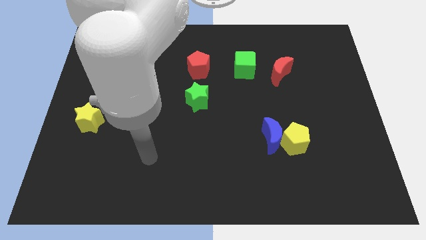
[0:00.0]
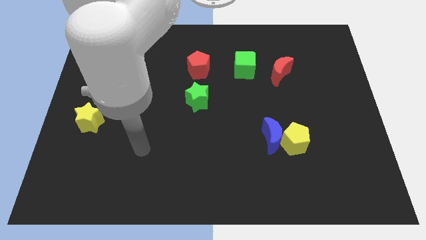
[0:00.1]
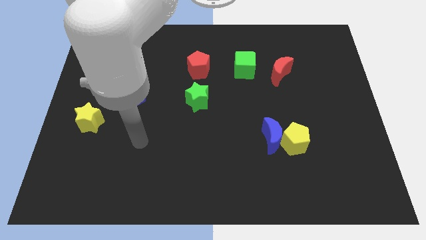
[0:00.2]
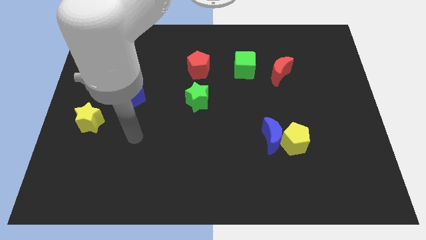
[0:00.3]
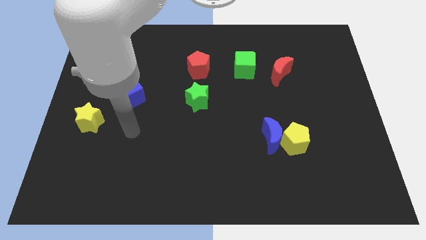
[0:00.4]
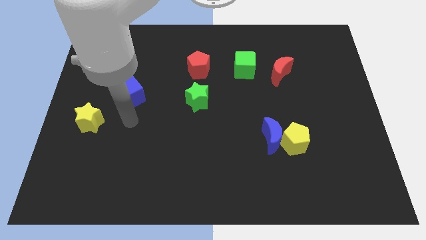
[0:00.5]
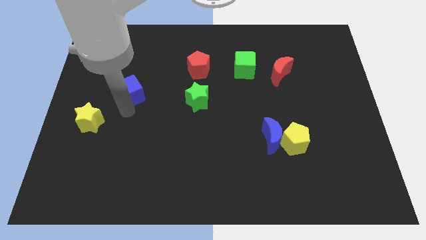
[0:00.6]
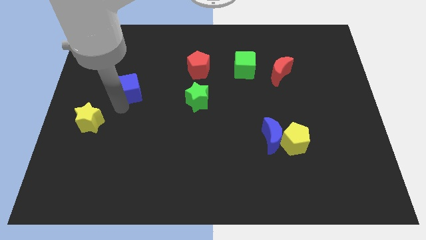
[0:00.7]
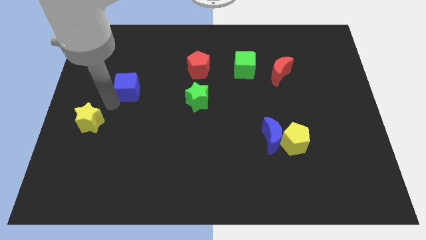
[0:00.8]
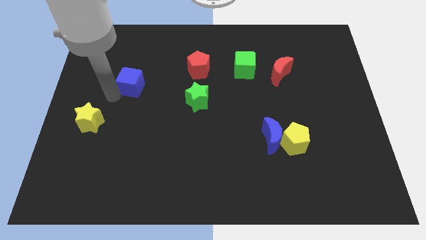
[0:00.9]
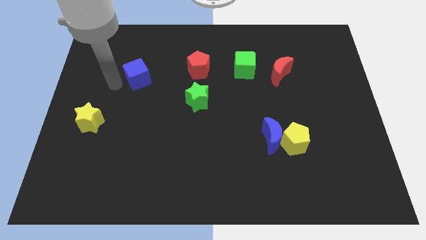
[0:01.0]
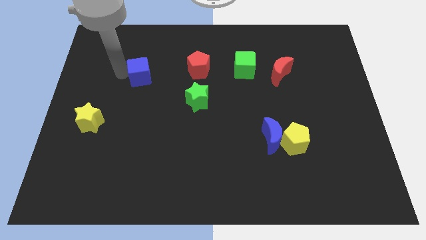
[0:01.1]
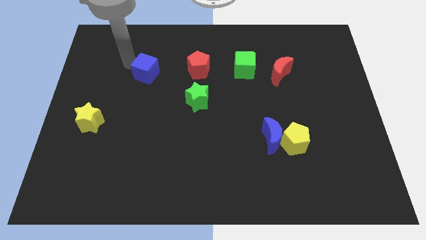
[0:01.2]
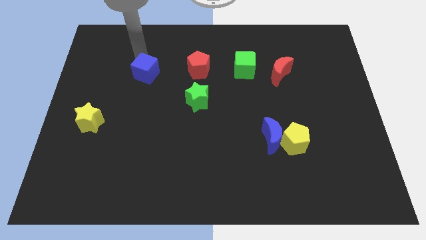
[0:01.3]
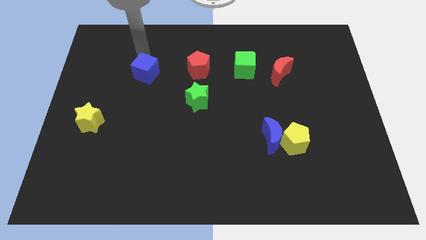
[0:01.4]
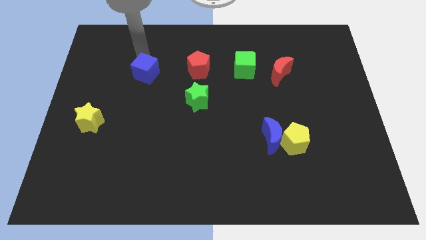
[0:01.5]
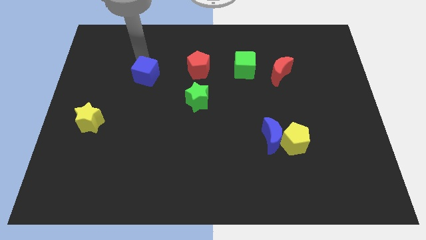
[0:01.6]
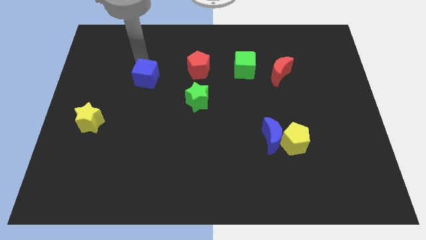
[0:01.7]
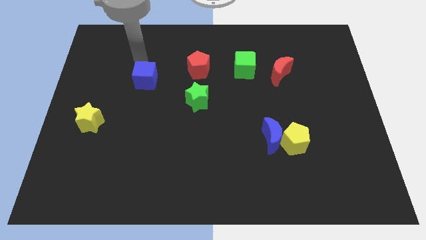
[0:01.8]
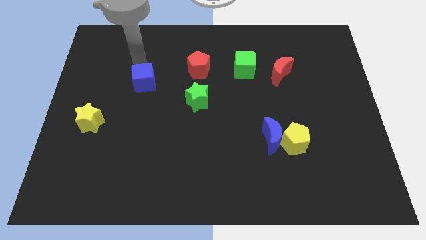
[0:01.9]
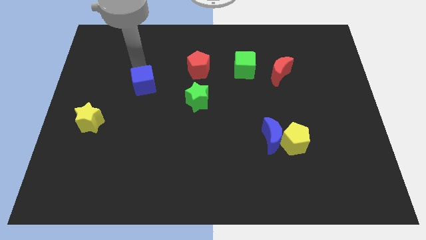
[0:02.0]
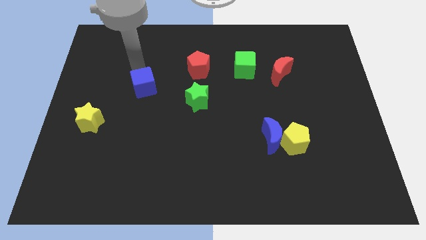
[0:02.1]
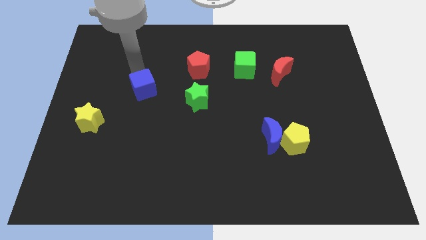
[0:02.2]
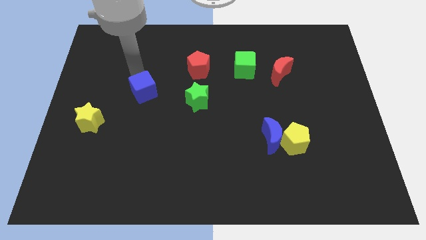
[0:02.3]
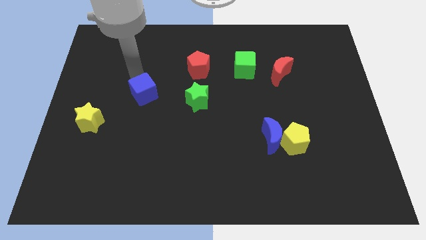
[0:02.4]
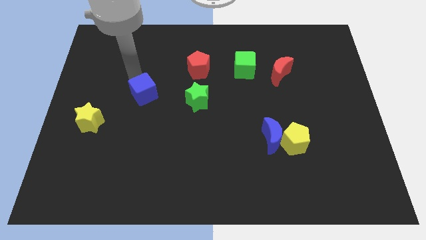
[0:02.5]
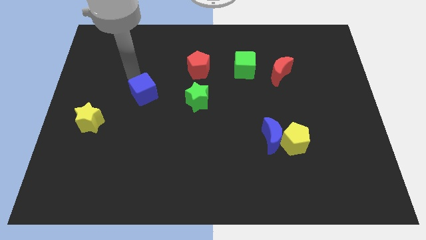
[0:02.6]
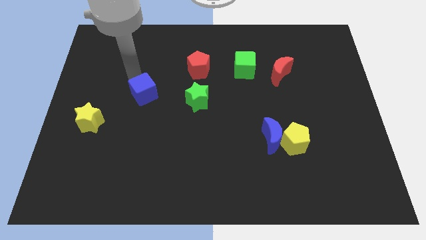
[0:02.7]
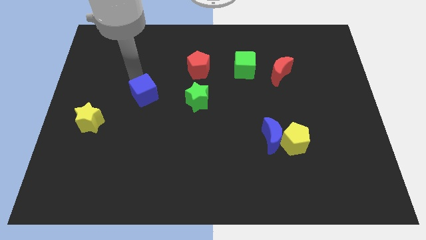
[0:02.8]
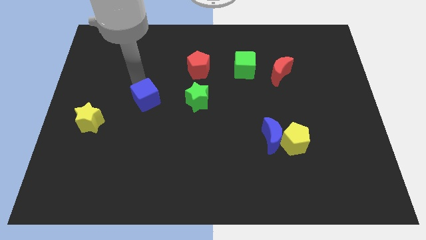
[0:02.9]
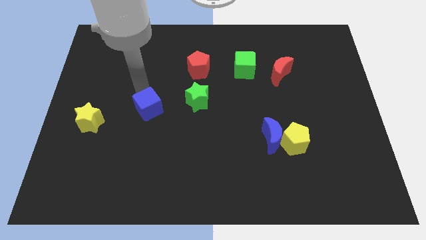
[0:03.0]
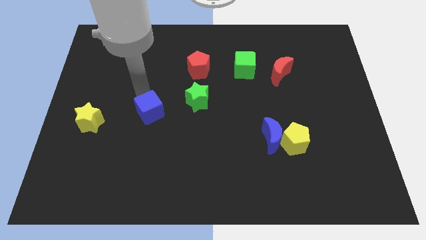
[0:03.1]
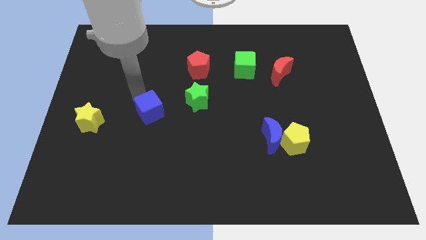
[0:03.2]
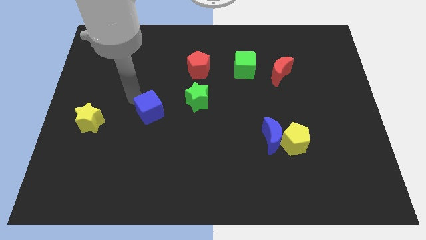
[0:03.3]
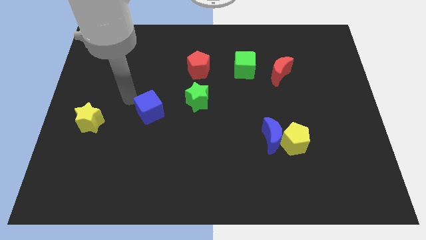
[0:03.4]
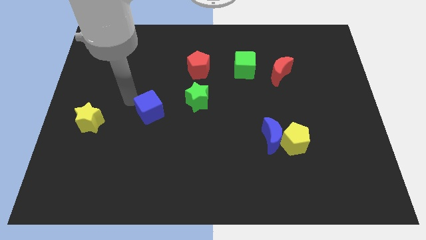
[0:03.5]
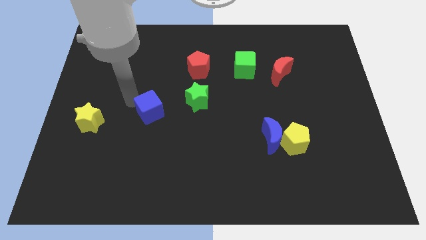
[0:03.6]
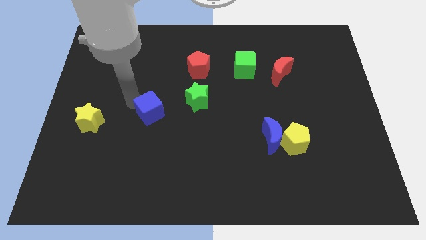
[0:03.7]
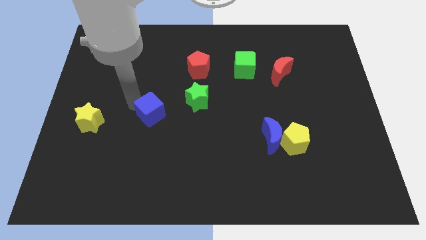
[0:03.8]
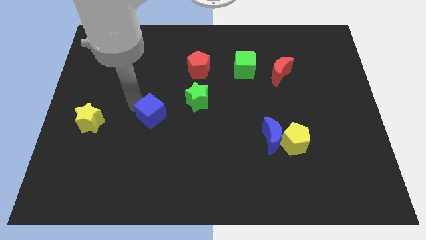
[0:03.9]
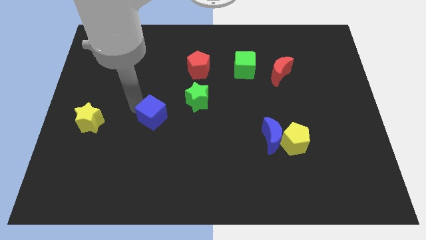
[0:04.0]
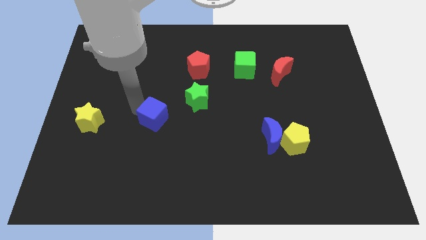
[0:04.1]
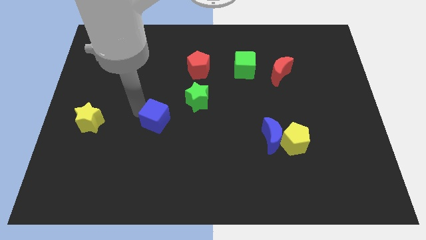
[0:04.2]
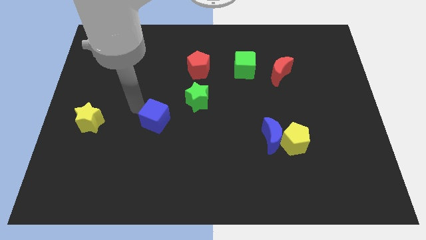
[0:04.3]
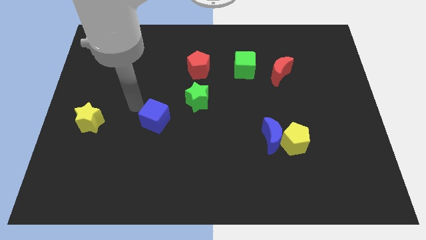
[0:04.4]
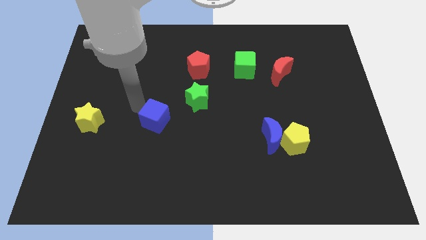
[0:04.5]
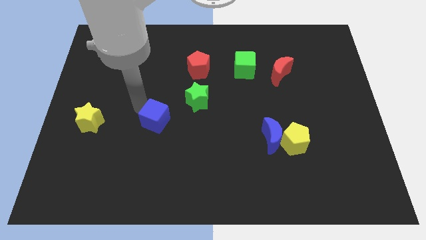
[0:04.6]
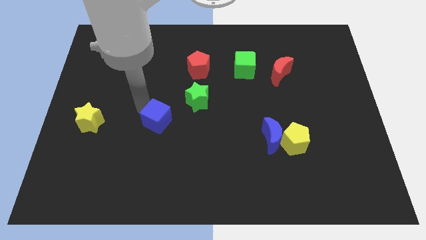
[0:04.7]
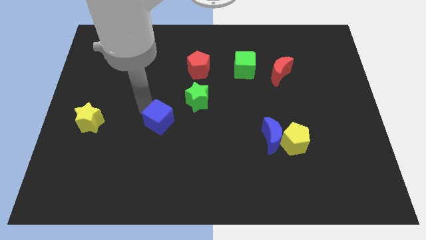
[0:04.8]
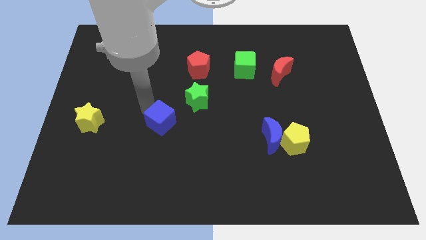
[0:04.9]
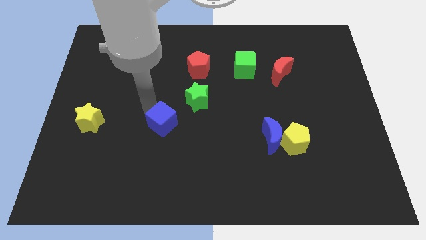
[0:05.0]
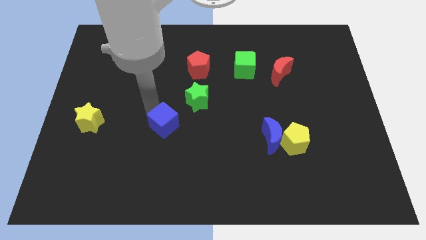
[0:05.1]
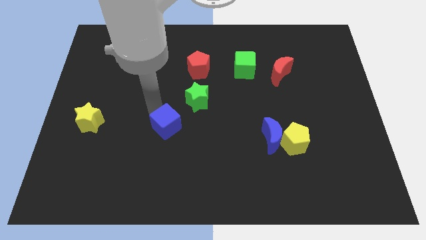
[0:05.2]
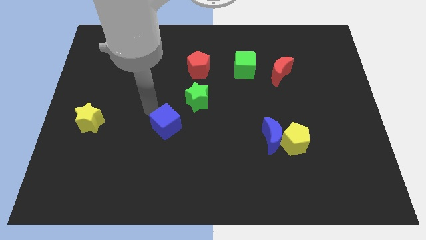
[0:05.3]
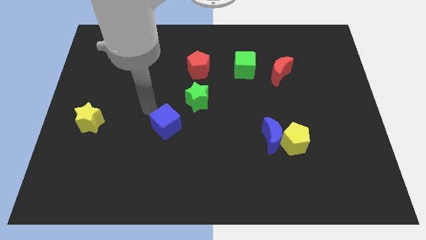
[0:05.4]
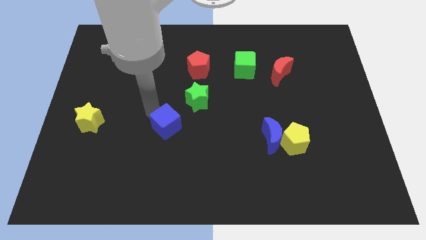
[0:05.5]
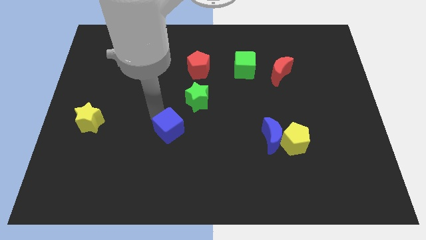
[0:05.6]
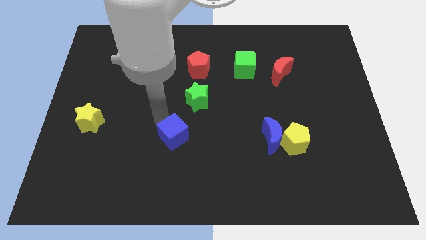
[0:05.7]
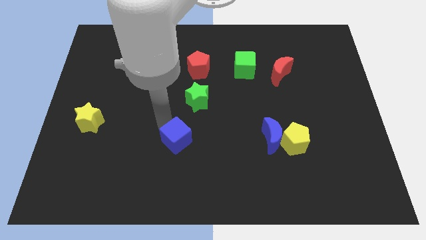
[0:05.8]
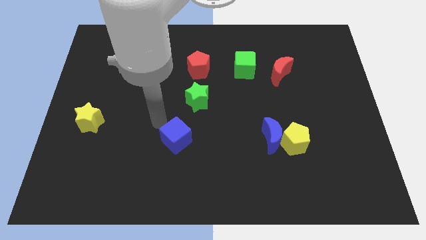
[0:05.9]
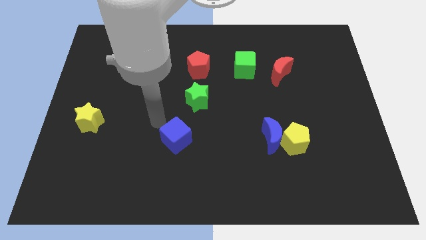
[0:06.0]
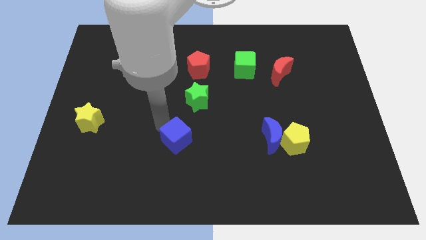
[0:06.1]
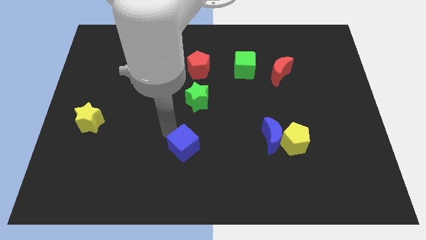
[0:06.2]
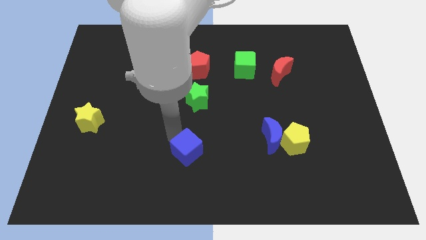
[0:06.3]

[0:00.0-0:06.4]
slide the blue cube downwards and then right

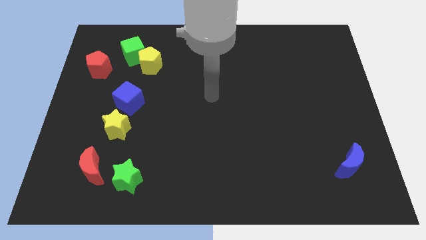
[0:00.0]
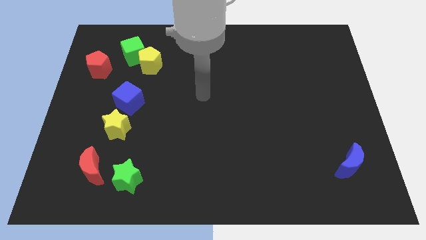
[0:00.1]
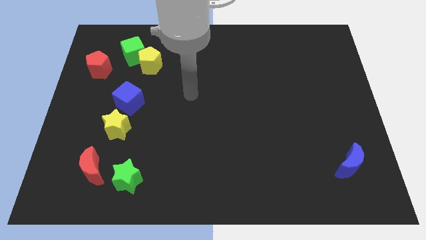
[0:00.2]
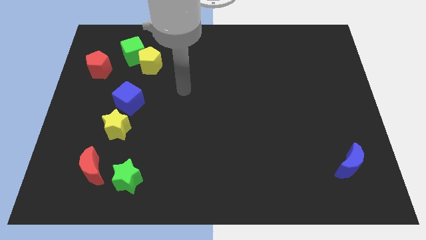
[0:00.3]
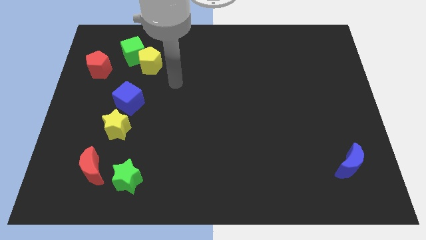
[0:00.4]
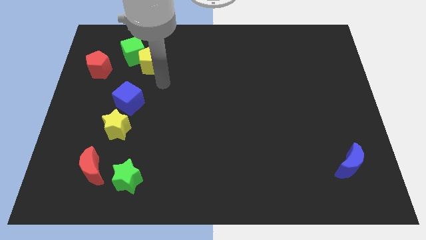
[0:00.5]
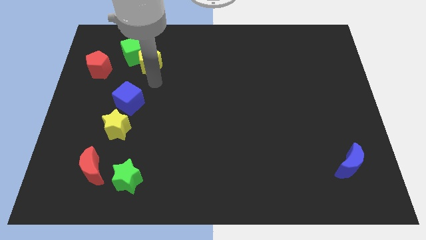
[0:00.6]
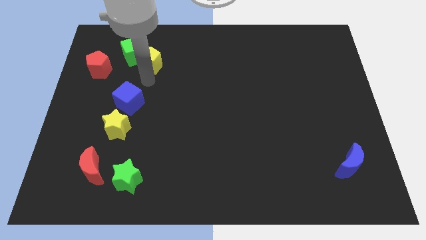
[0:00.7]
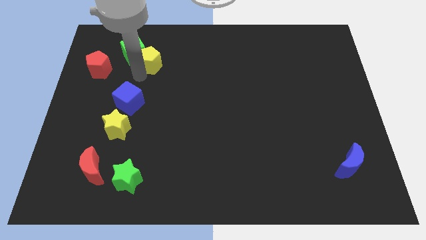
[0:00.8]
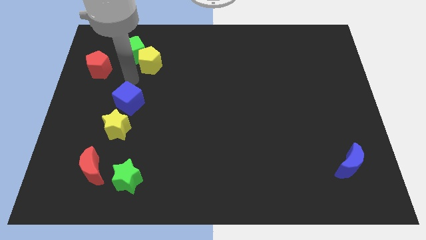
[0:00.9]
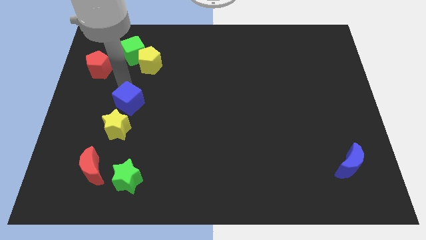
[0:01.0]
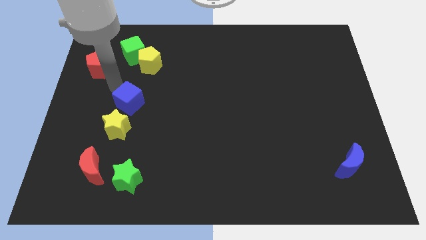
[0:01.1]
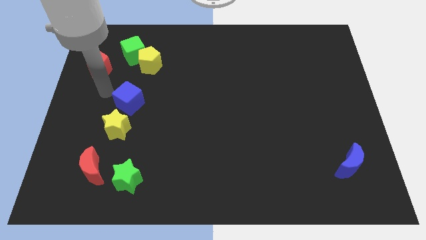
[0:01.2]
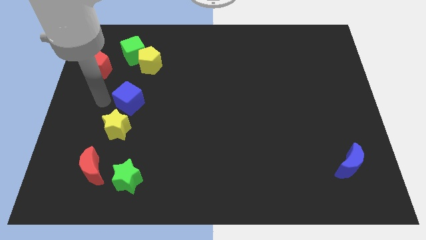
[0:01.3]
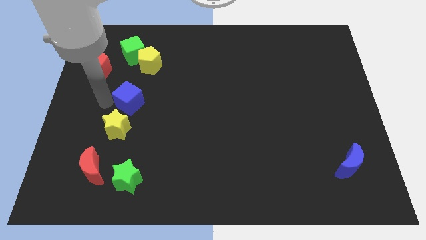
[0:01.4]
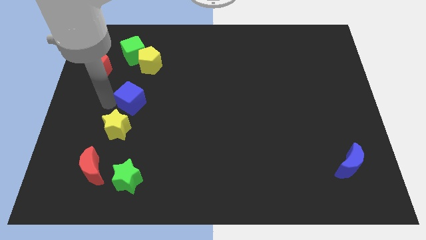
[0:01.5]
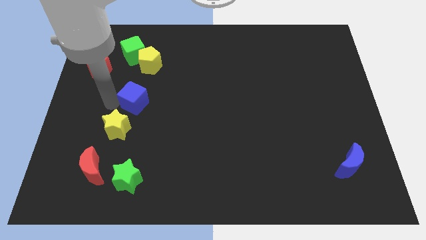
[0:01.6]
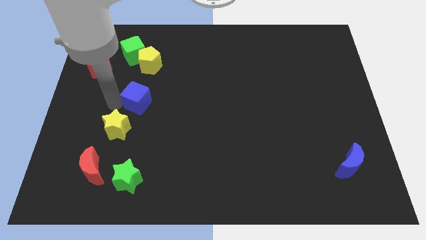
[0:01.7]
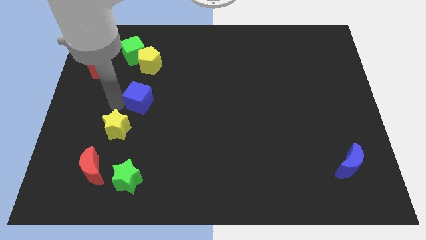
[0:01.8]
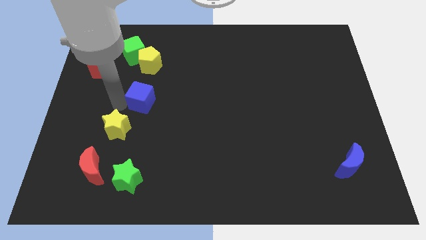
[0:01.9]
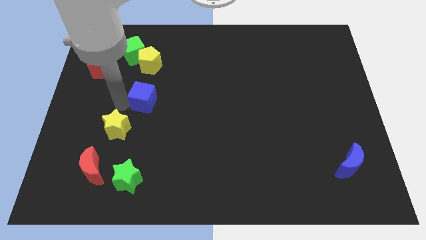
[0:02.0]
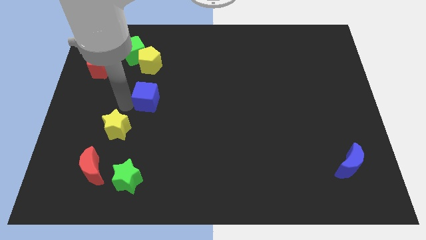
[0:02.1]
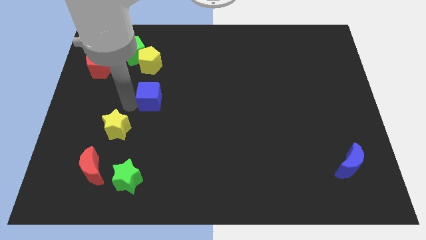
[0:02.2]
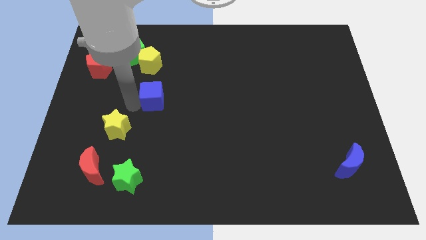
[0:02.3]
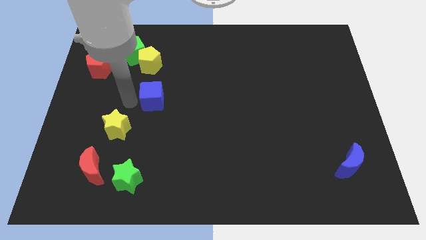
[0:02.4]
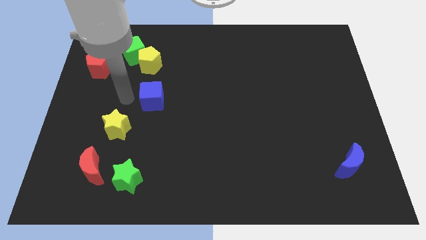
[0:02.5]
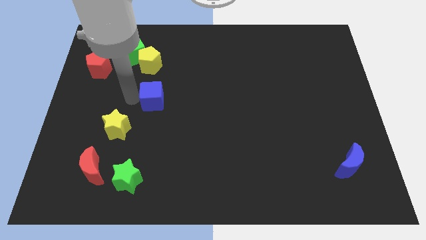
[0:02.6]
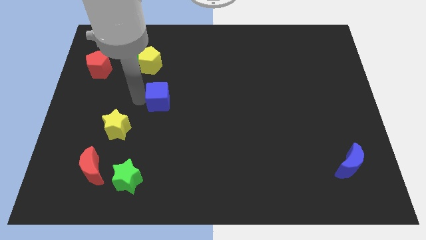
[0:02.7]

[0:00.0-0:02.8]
slide the blue cube to the right a little bit
